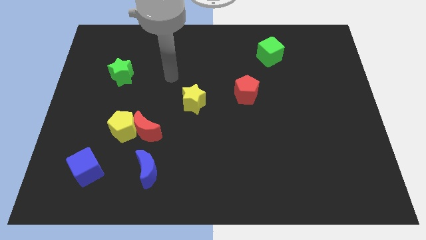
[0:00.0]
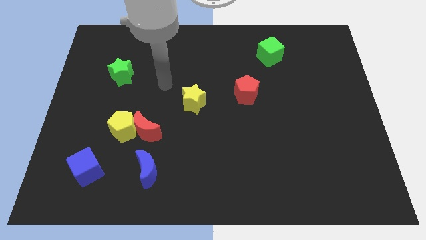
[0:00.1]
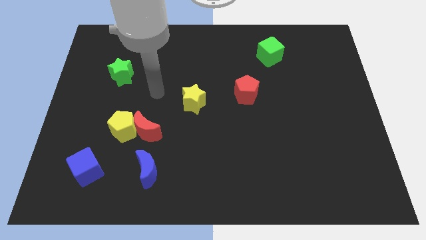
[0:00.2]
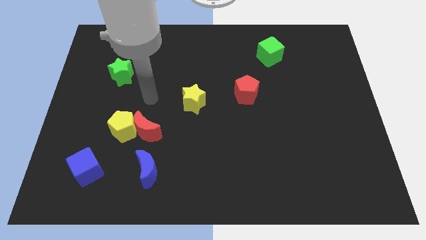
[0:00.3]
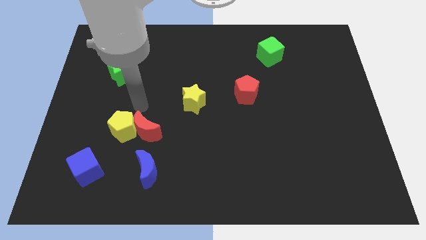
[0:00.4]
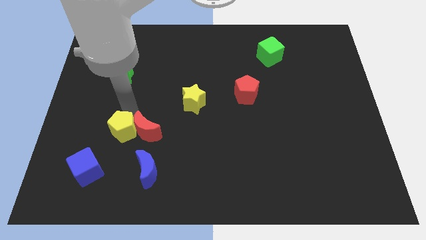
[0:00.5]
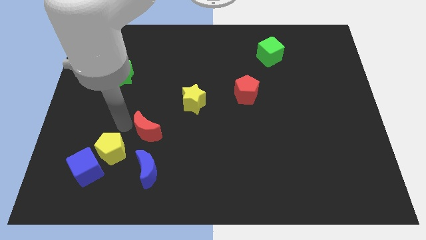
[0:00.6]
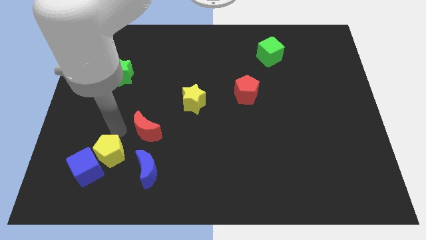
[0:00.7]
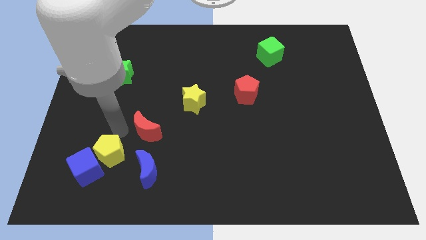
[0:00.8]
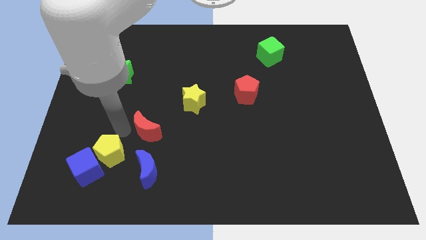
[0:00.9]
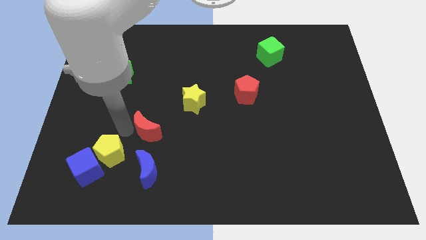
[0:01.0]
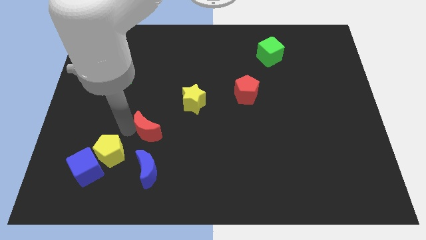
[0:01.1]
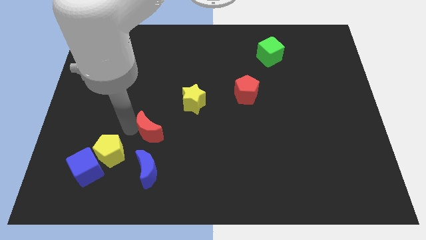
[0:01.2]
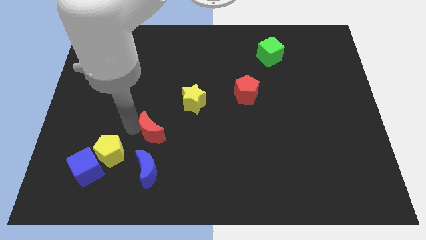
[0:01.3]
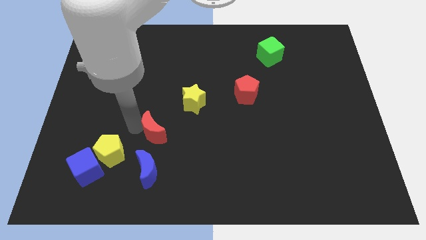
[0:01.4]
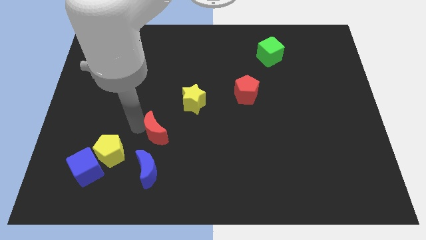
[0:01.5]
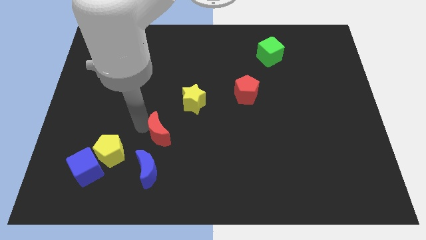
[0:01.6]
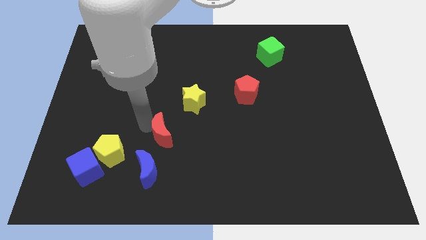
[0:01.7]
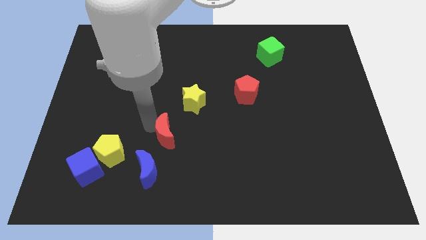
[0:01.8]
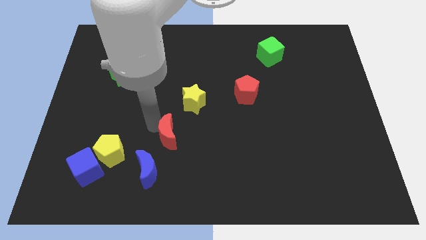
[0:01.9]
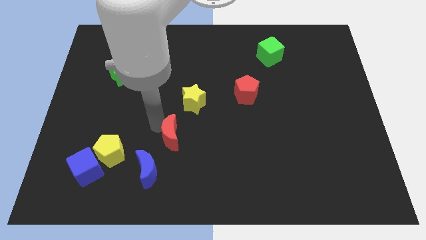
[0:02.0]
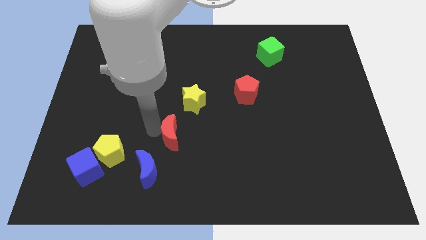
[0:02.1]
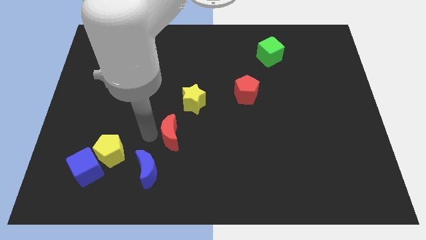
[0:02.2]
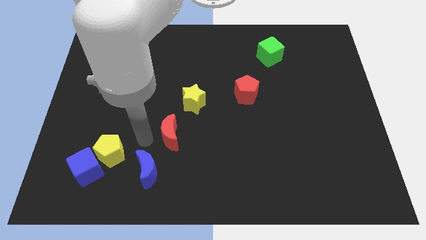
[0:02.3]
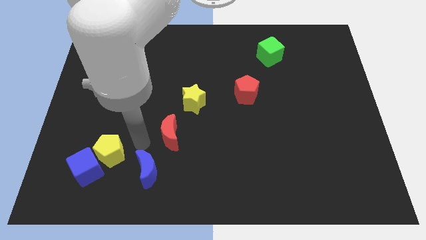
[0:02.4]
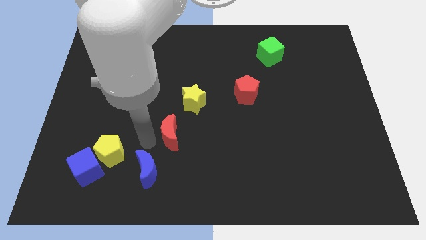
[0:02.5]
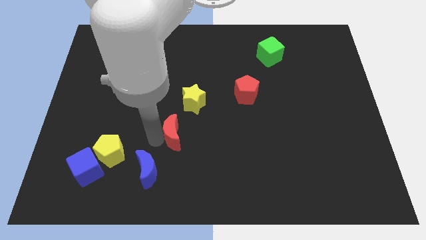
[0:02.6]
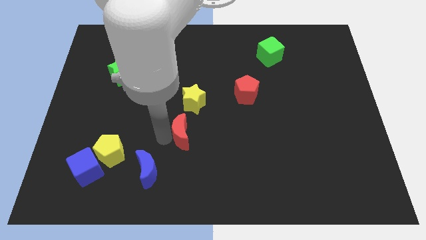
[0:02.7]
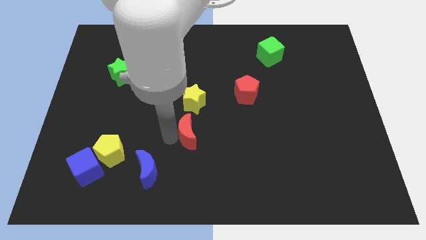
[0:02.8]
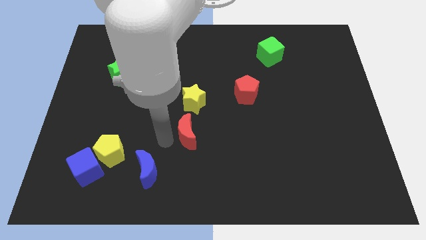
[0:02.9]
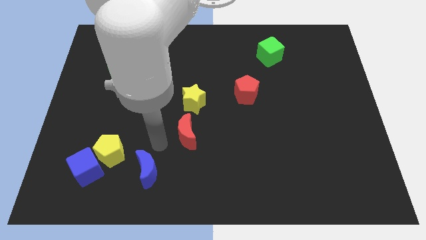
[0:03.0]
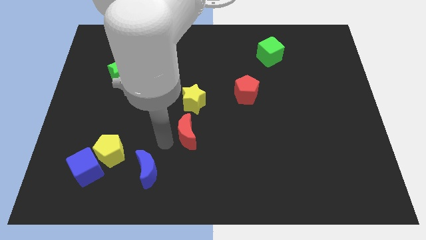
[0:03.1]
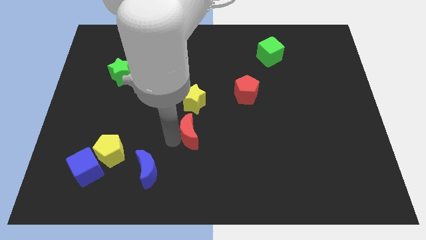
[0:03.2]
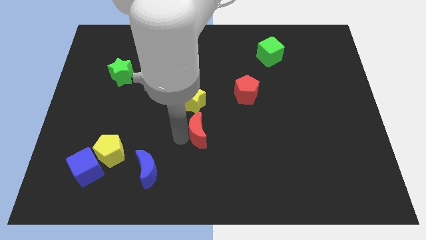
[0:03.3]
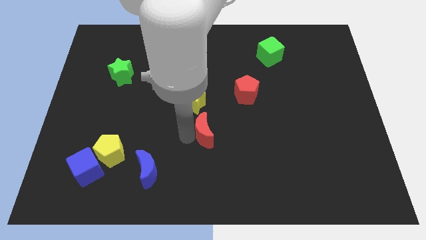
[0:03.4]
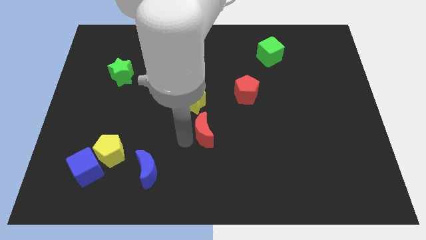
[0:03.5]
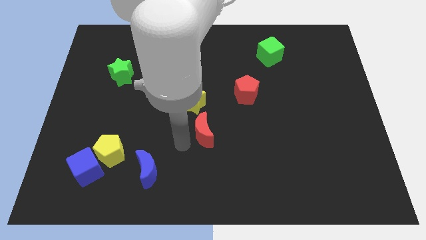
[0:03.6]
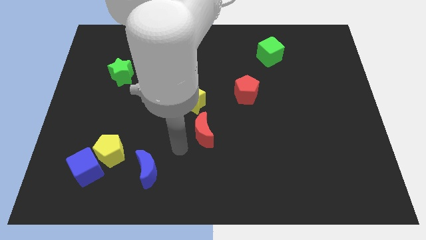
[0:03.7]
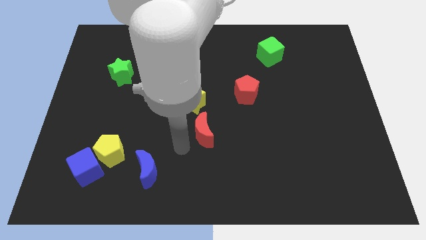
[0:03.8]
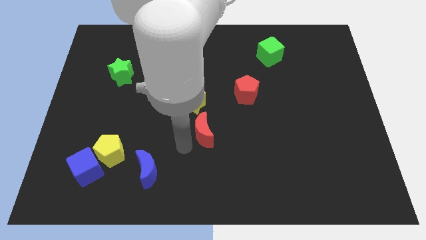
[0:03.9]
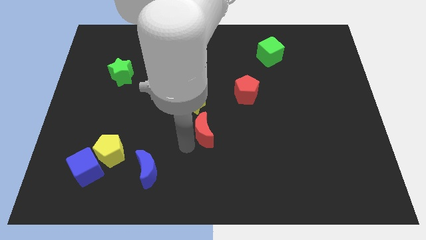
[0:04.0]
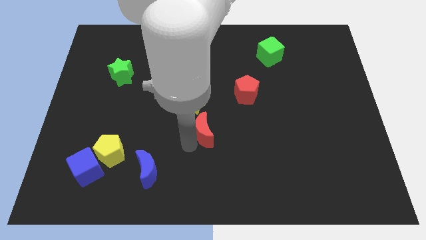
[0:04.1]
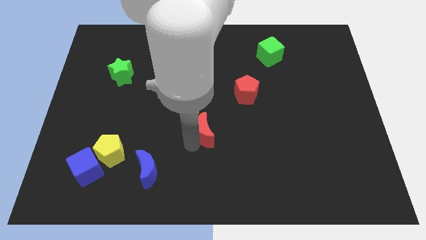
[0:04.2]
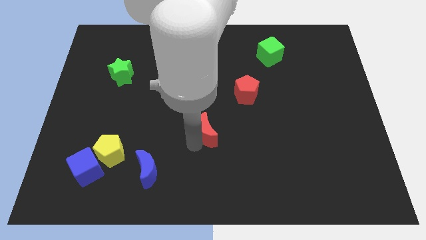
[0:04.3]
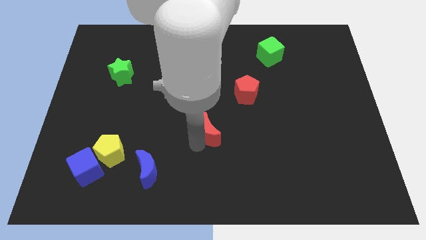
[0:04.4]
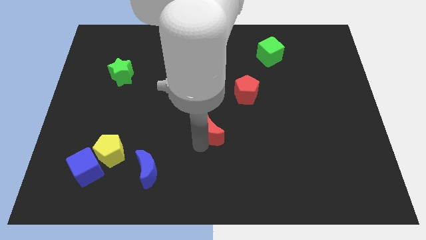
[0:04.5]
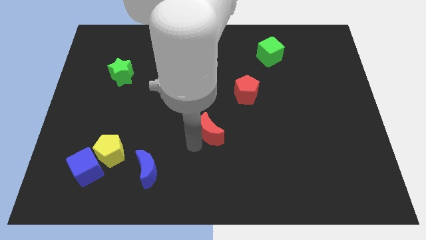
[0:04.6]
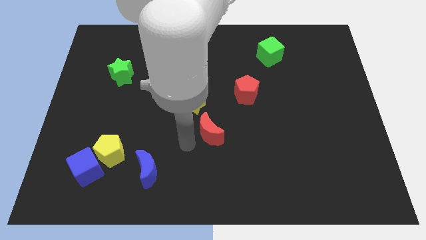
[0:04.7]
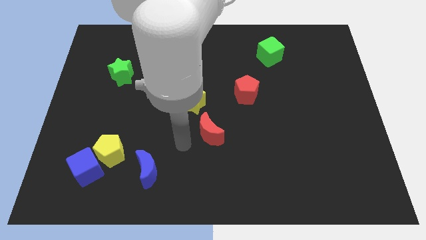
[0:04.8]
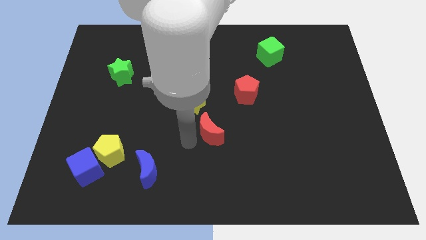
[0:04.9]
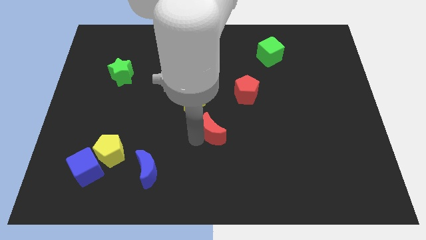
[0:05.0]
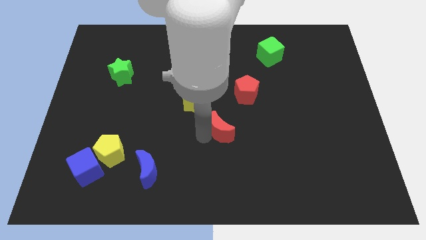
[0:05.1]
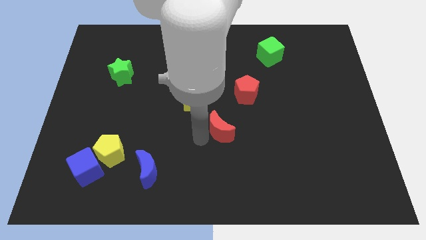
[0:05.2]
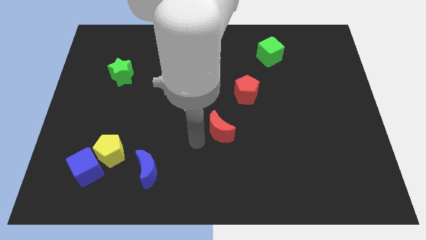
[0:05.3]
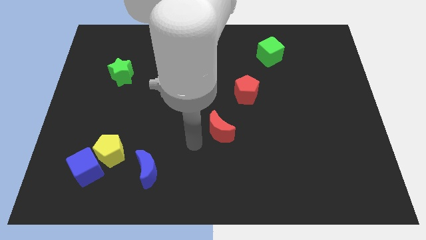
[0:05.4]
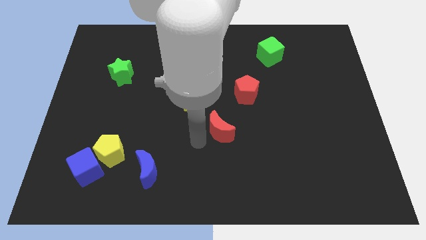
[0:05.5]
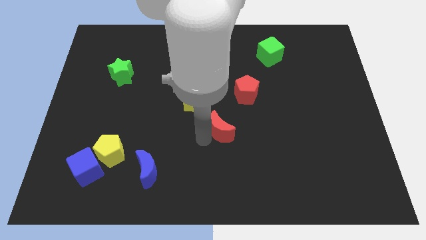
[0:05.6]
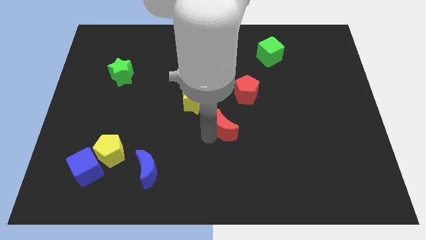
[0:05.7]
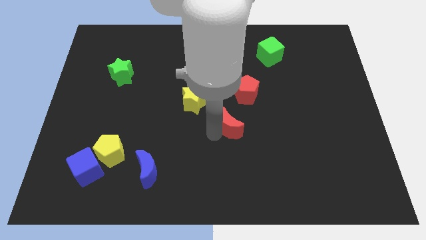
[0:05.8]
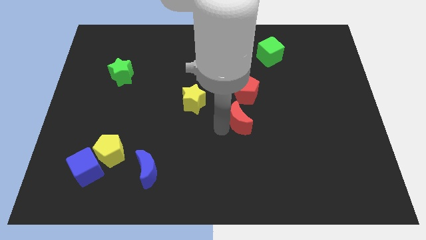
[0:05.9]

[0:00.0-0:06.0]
push the red moon right

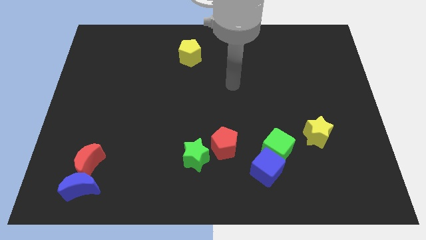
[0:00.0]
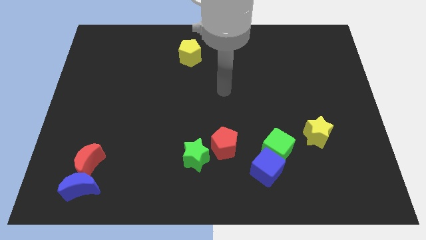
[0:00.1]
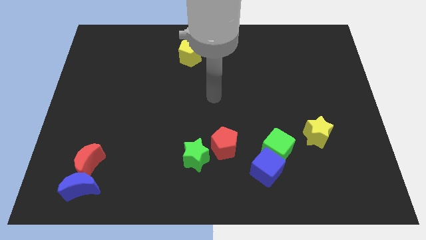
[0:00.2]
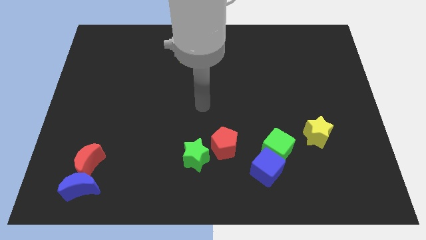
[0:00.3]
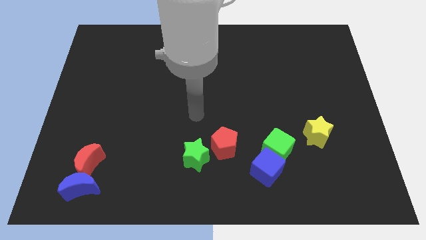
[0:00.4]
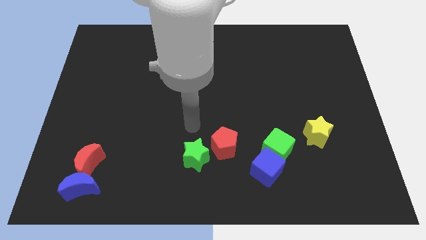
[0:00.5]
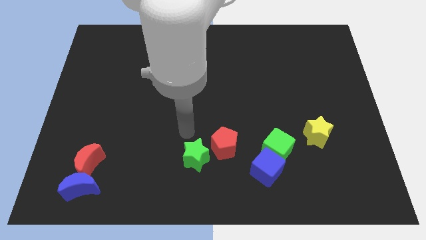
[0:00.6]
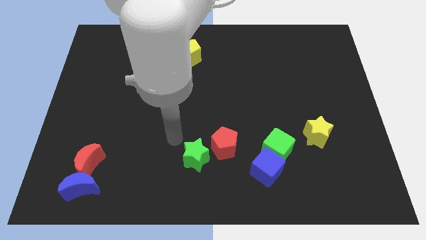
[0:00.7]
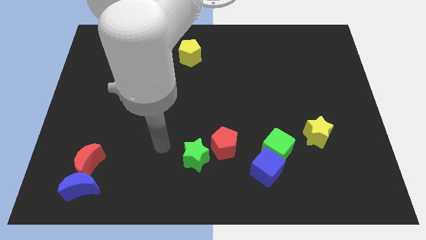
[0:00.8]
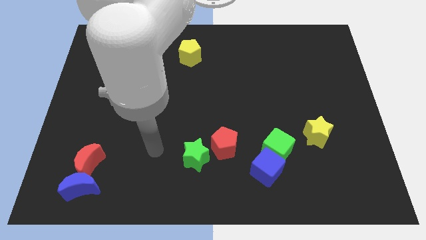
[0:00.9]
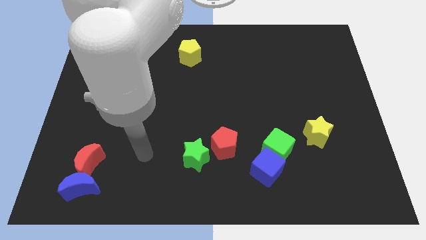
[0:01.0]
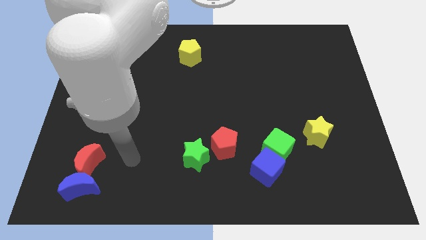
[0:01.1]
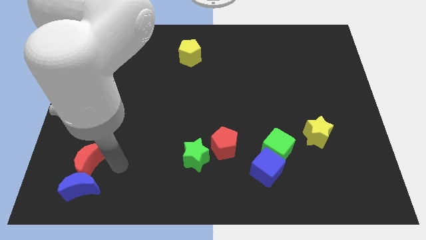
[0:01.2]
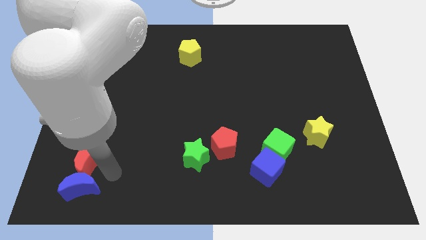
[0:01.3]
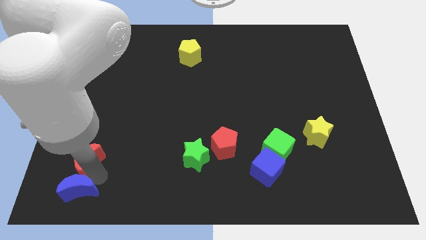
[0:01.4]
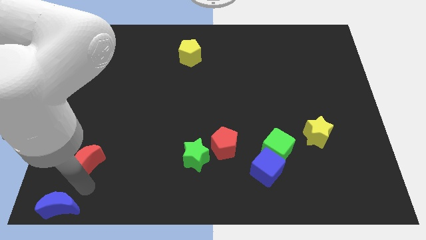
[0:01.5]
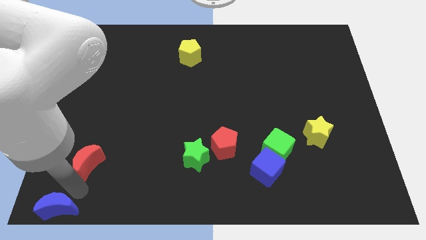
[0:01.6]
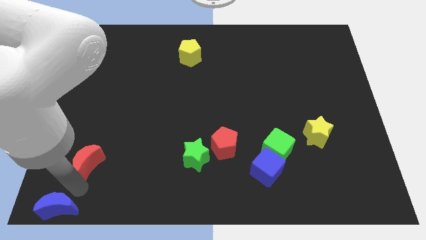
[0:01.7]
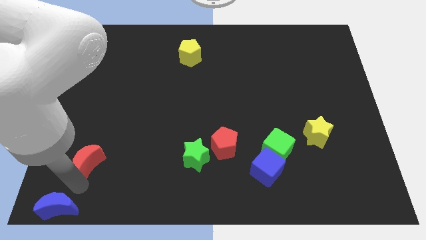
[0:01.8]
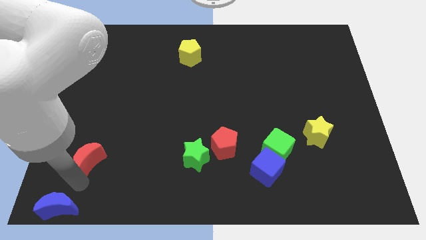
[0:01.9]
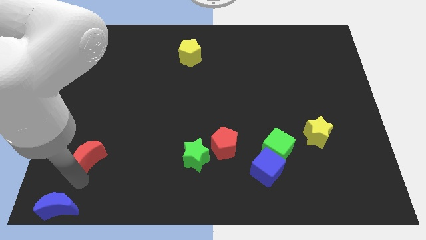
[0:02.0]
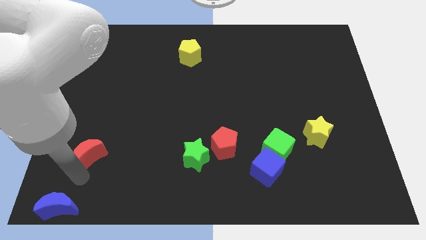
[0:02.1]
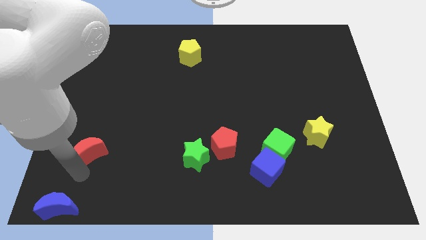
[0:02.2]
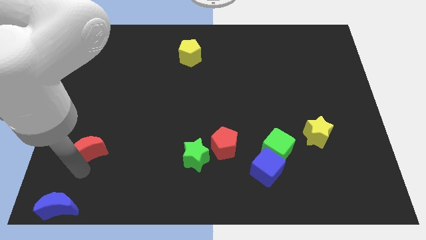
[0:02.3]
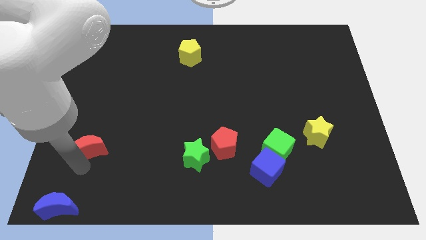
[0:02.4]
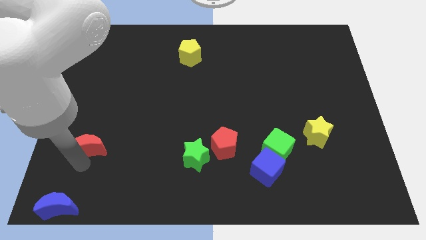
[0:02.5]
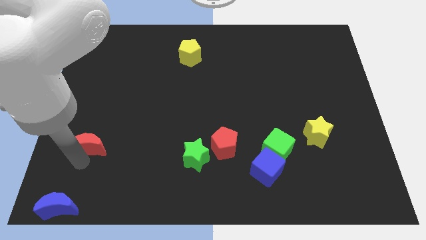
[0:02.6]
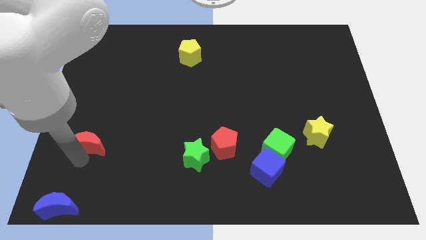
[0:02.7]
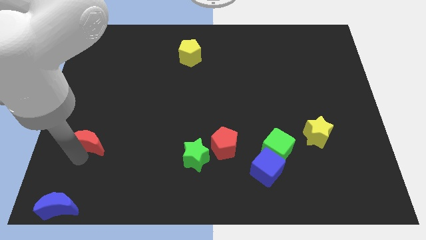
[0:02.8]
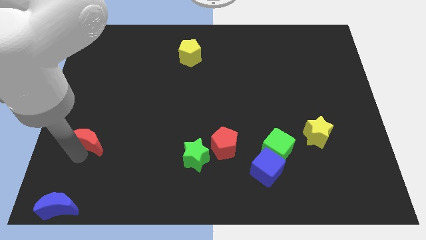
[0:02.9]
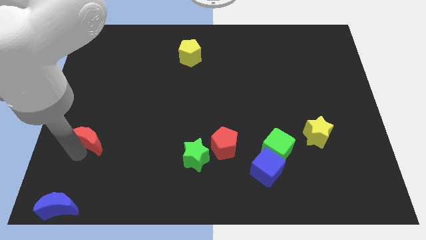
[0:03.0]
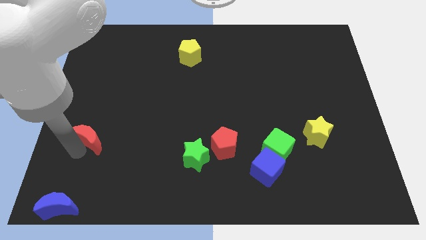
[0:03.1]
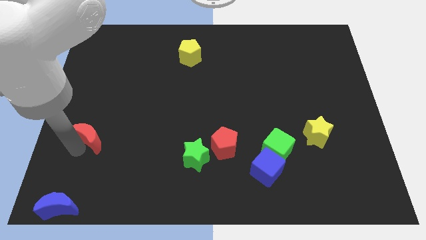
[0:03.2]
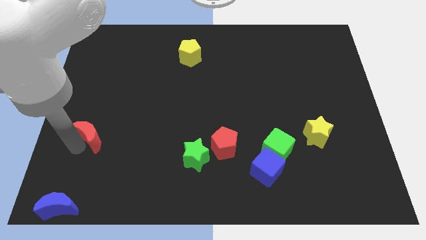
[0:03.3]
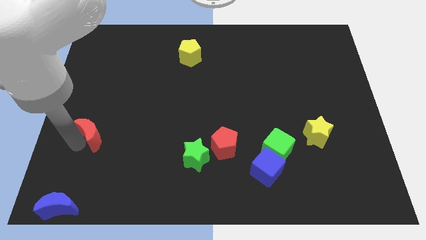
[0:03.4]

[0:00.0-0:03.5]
push the red moon up a little
